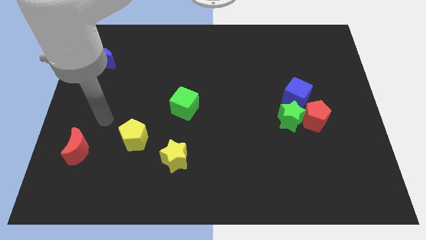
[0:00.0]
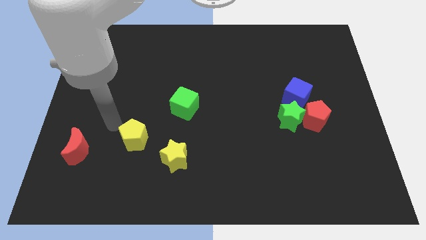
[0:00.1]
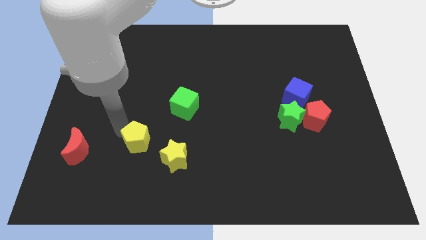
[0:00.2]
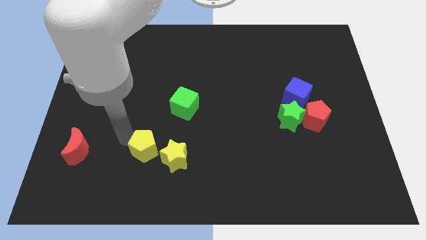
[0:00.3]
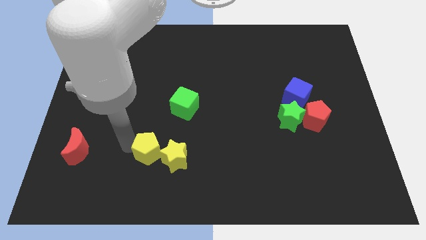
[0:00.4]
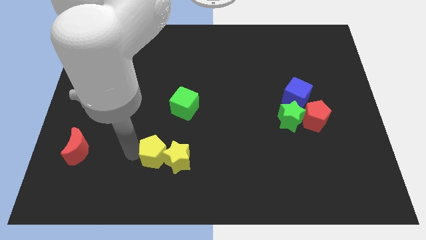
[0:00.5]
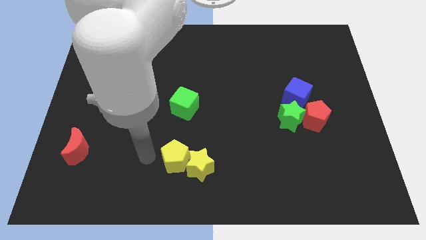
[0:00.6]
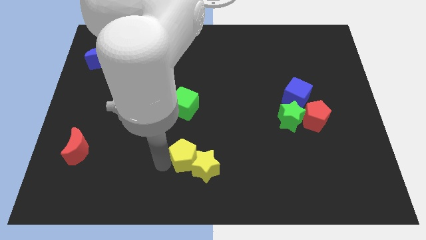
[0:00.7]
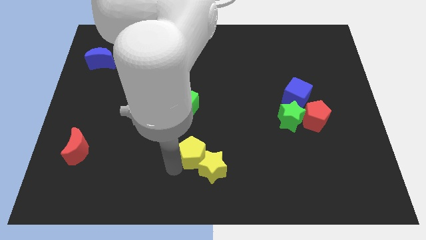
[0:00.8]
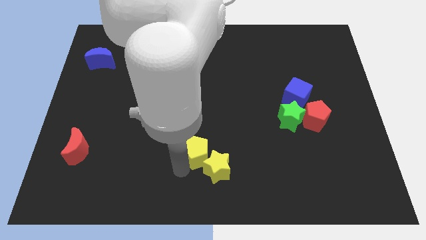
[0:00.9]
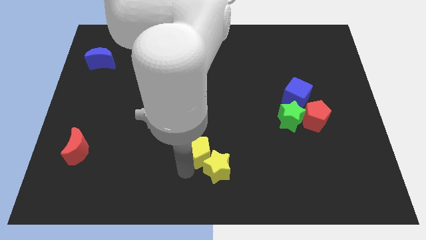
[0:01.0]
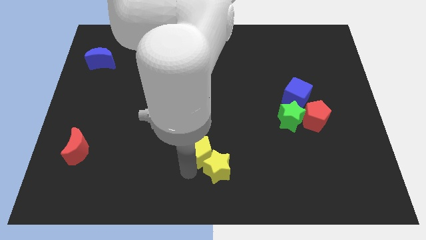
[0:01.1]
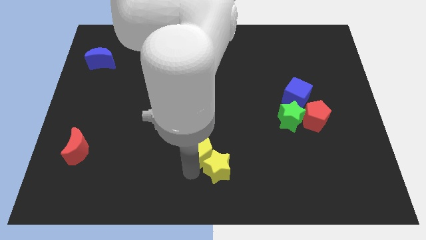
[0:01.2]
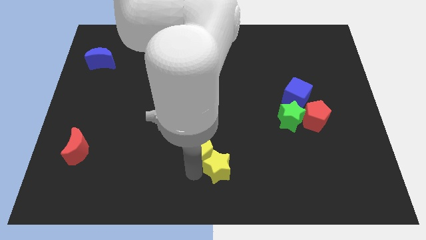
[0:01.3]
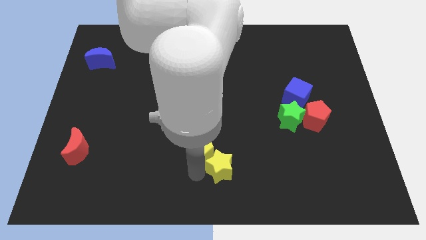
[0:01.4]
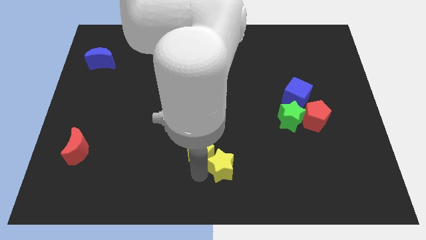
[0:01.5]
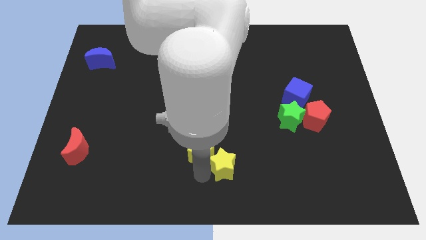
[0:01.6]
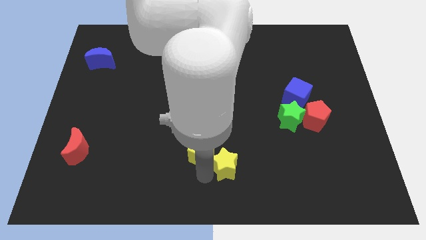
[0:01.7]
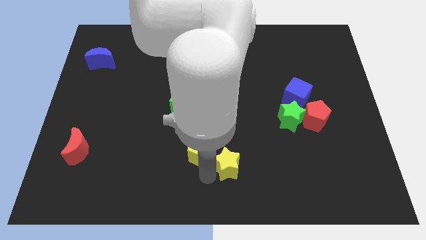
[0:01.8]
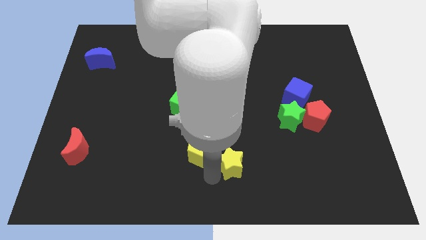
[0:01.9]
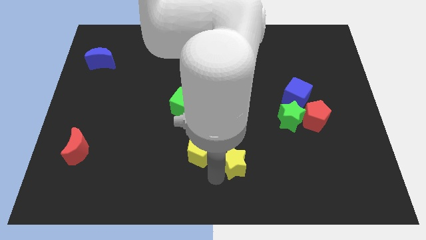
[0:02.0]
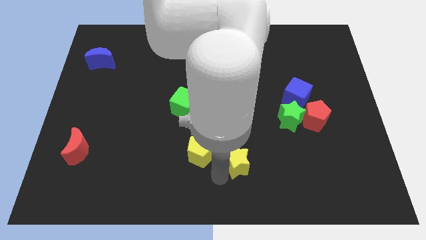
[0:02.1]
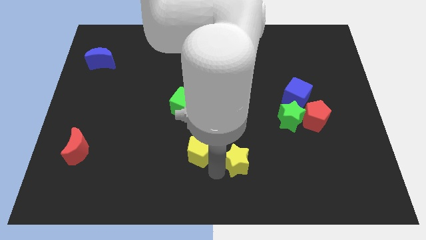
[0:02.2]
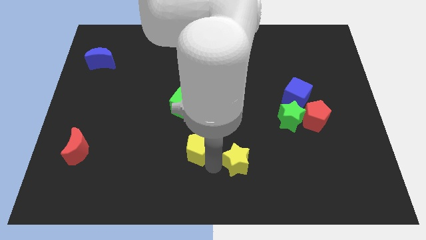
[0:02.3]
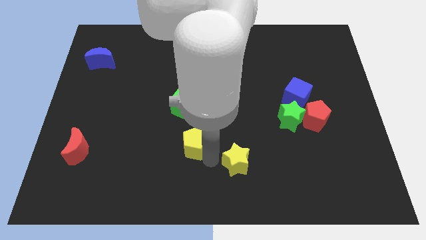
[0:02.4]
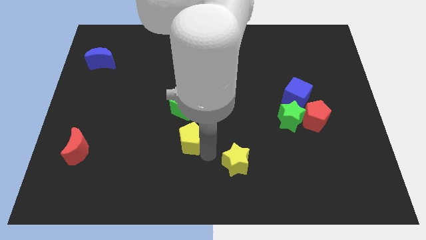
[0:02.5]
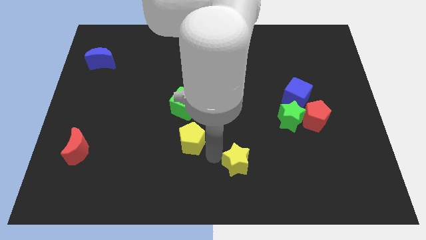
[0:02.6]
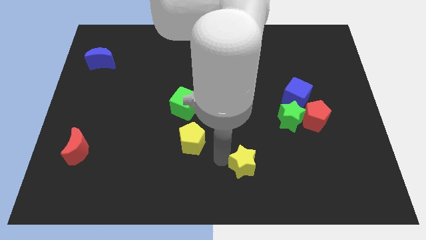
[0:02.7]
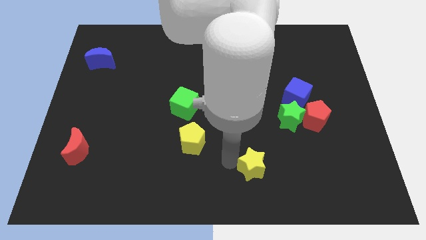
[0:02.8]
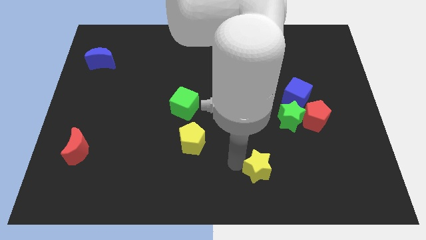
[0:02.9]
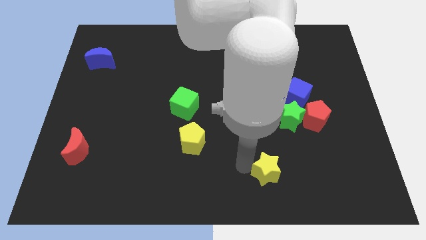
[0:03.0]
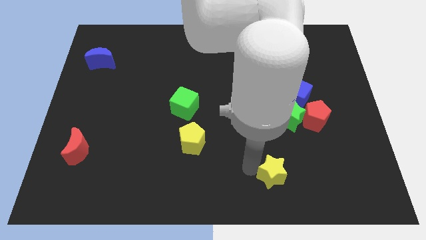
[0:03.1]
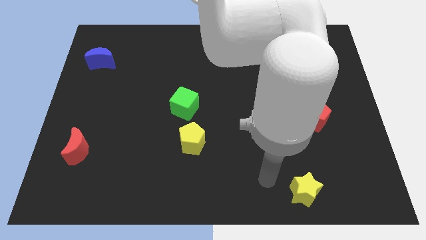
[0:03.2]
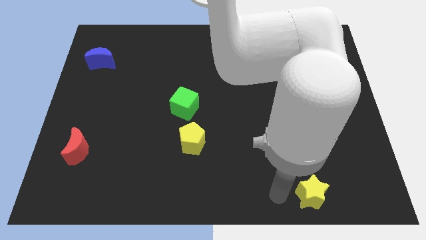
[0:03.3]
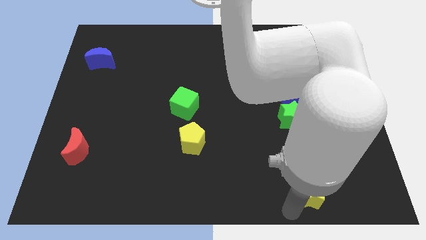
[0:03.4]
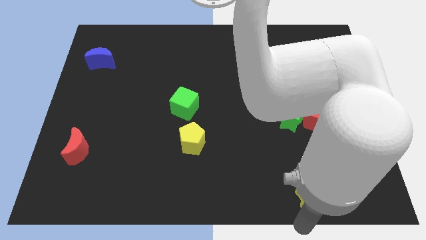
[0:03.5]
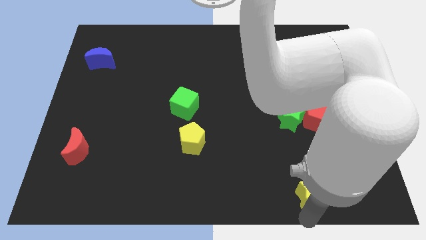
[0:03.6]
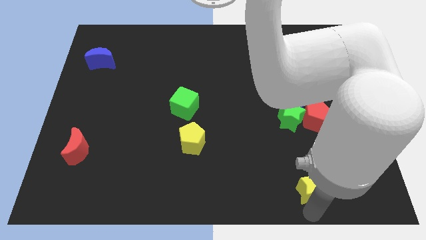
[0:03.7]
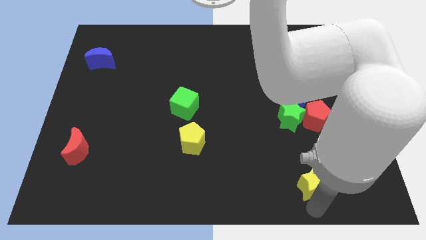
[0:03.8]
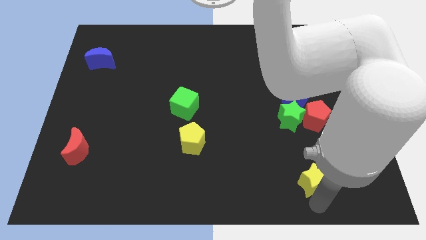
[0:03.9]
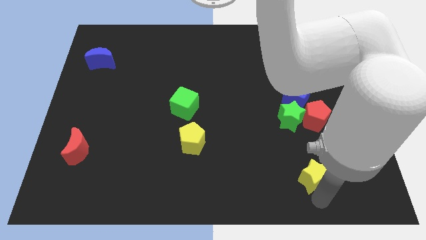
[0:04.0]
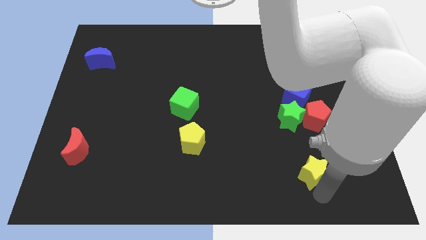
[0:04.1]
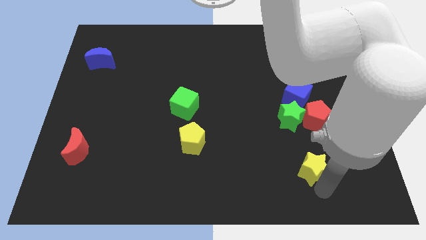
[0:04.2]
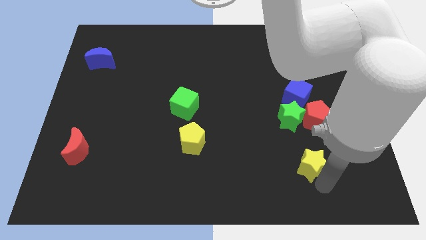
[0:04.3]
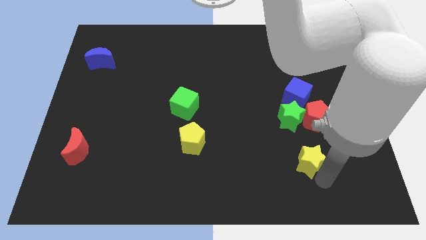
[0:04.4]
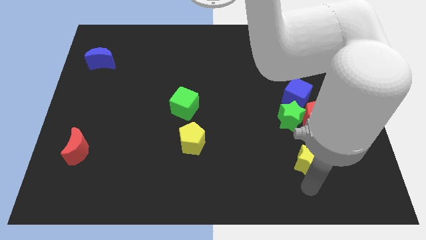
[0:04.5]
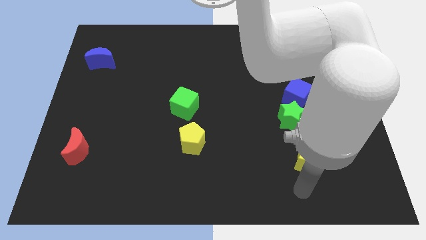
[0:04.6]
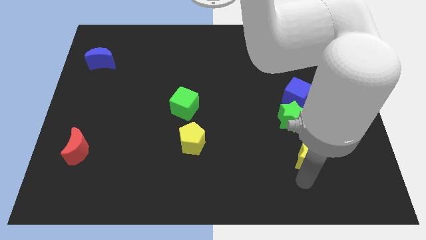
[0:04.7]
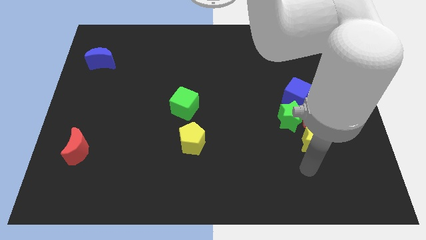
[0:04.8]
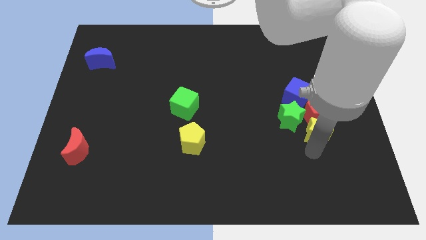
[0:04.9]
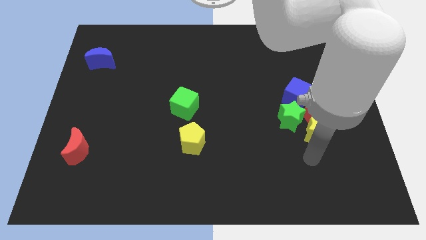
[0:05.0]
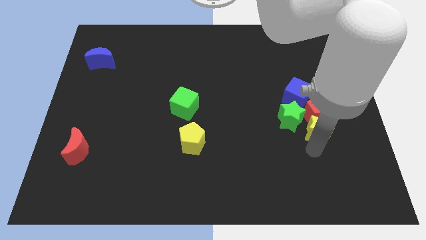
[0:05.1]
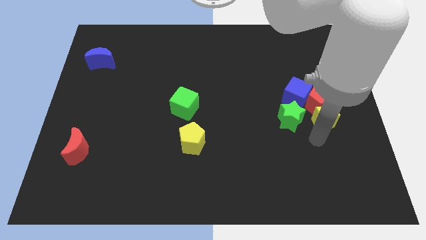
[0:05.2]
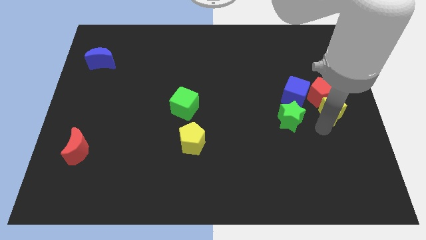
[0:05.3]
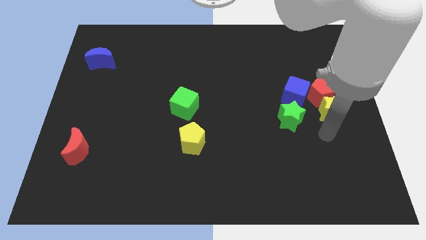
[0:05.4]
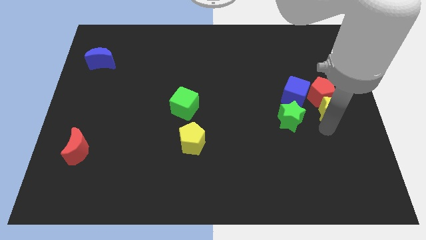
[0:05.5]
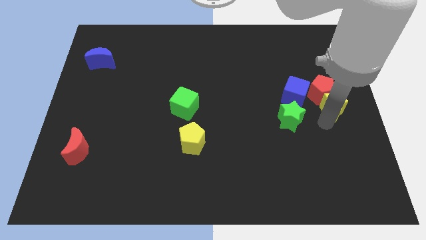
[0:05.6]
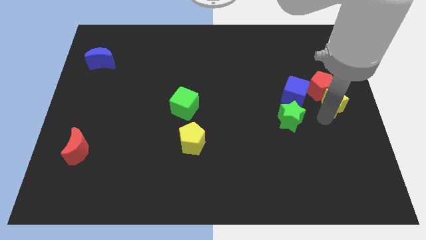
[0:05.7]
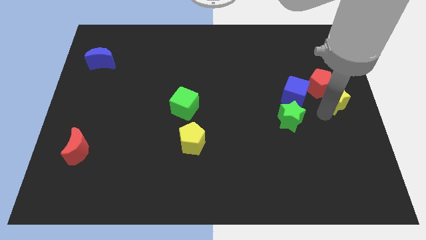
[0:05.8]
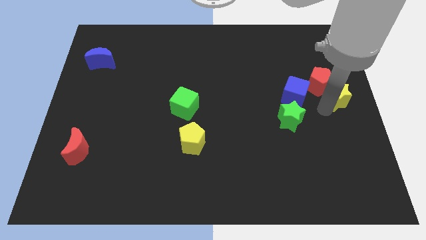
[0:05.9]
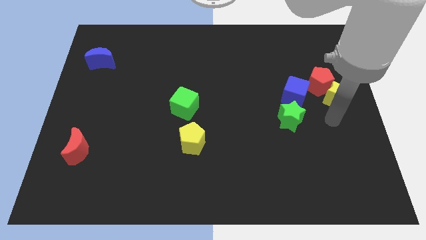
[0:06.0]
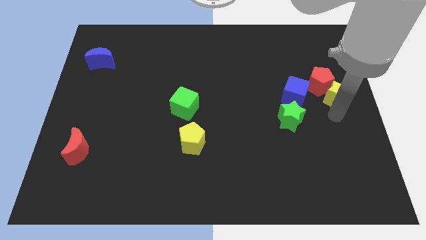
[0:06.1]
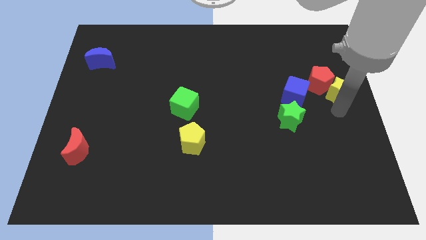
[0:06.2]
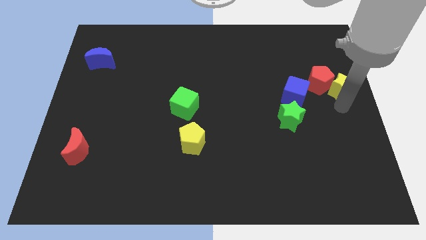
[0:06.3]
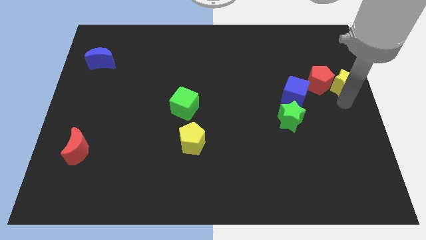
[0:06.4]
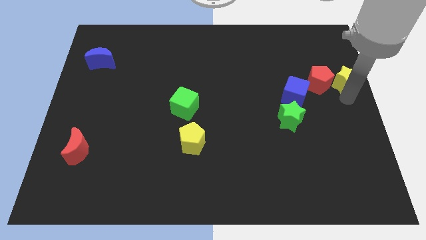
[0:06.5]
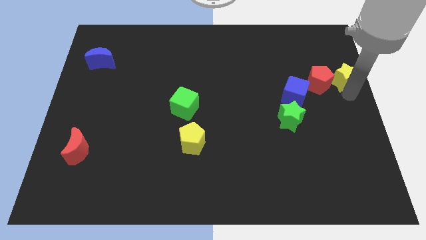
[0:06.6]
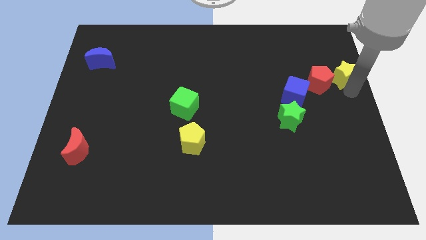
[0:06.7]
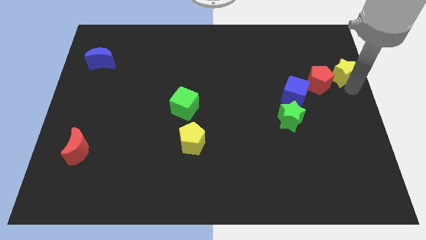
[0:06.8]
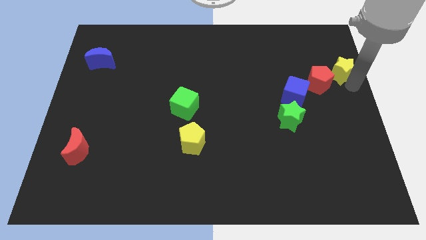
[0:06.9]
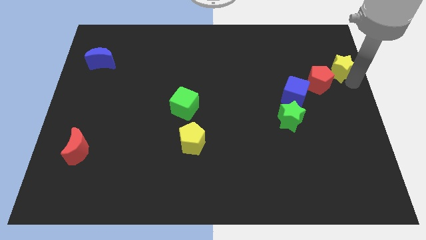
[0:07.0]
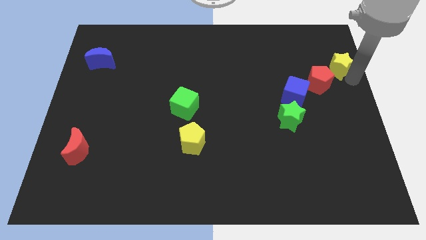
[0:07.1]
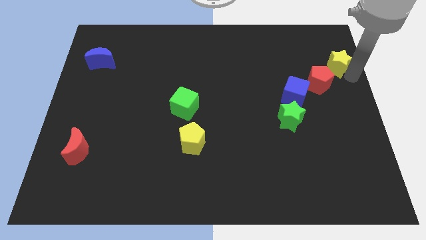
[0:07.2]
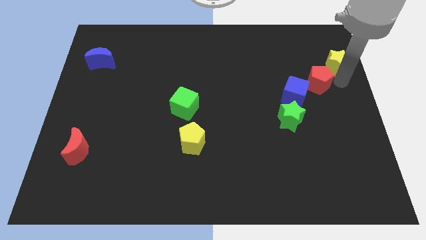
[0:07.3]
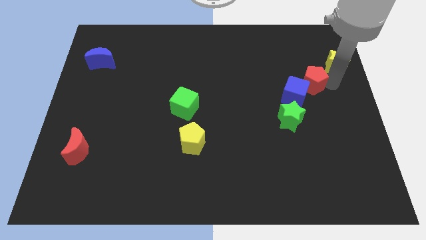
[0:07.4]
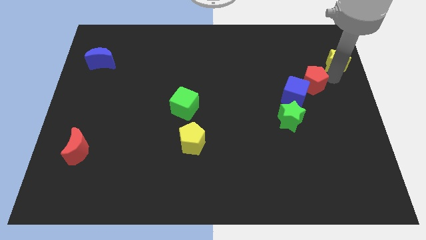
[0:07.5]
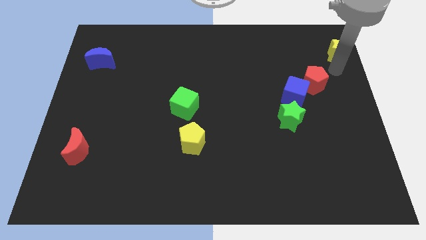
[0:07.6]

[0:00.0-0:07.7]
put the yellow star to the top right of the board
